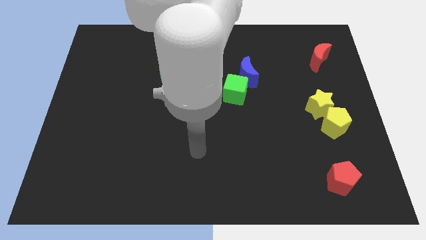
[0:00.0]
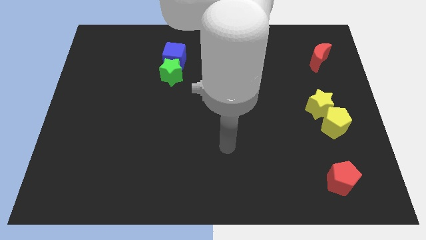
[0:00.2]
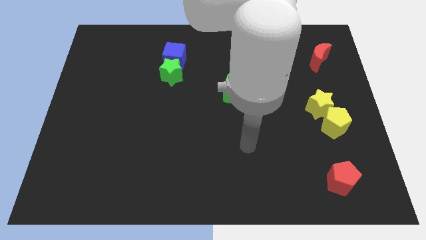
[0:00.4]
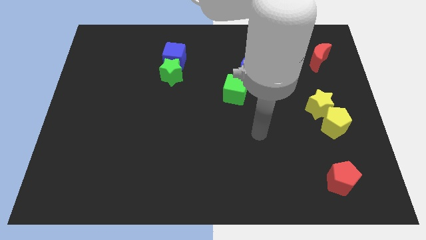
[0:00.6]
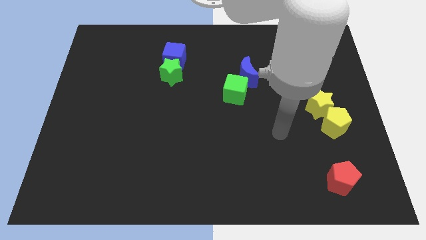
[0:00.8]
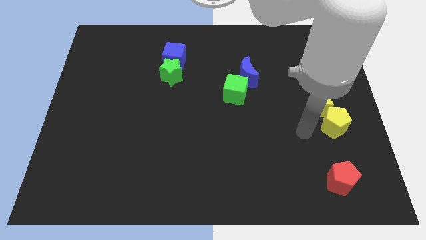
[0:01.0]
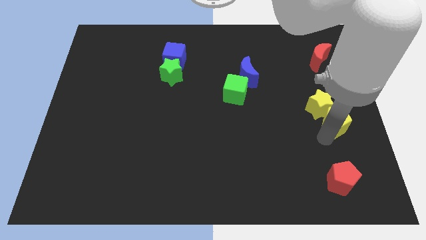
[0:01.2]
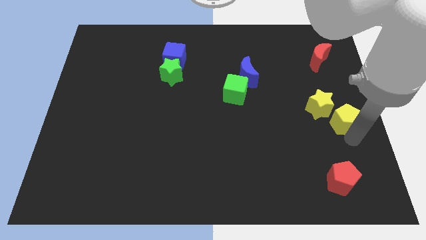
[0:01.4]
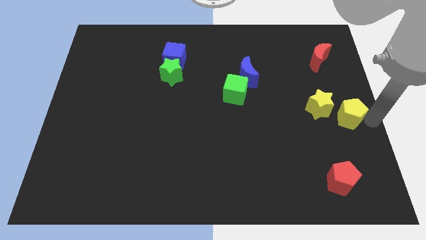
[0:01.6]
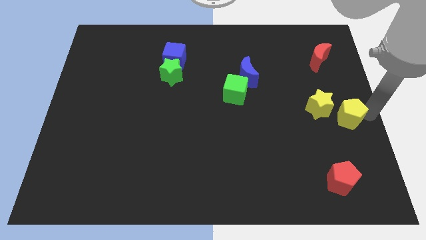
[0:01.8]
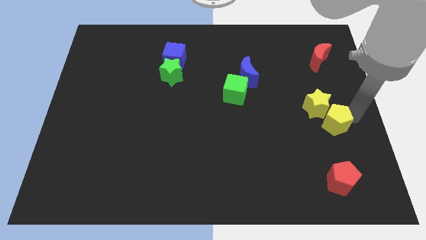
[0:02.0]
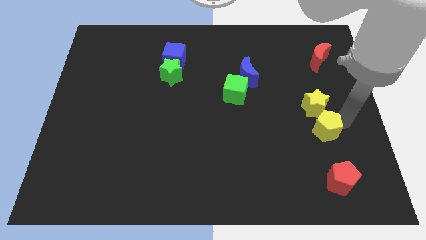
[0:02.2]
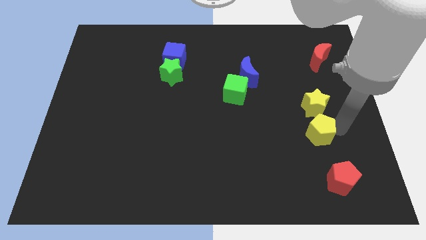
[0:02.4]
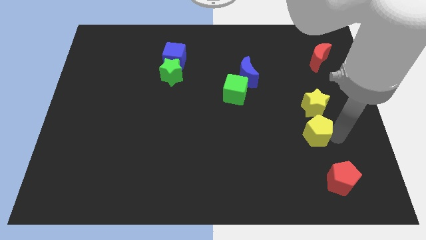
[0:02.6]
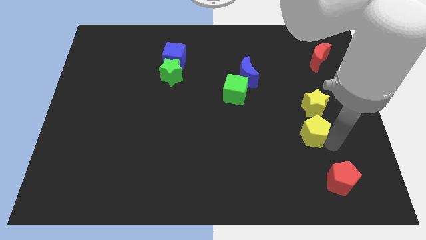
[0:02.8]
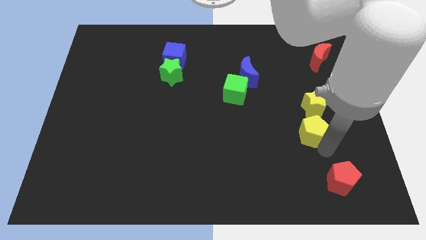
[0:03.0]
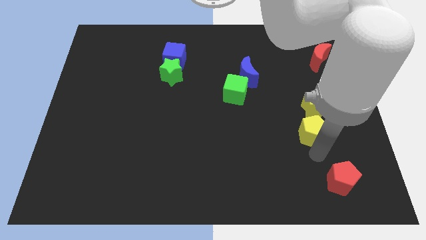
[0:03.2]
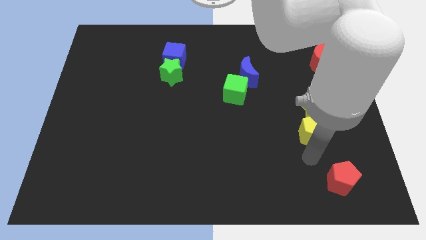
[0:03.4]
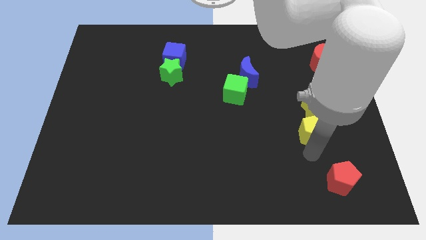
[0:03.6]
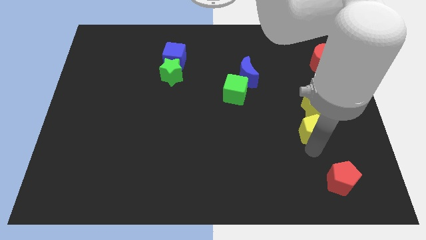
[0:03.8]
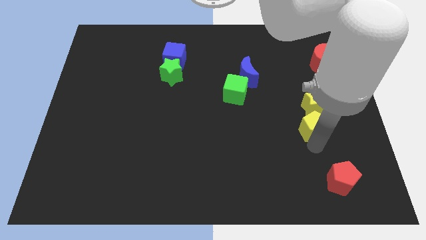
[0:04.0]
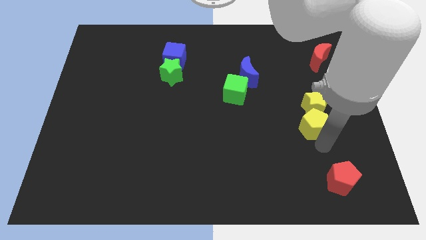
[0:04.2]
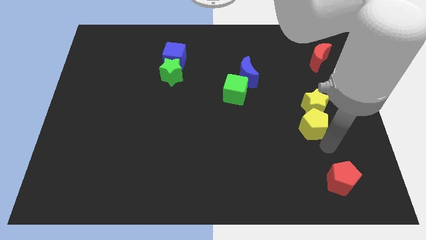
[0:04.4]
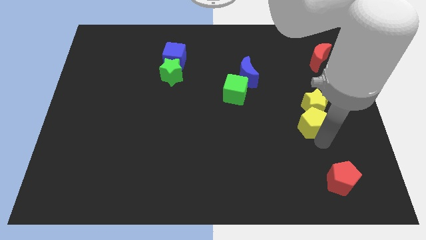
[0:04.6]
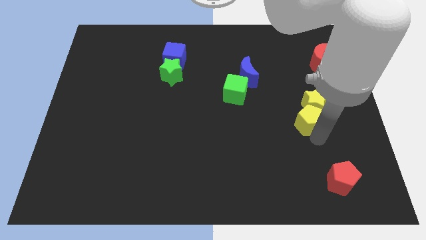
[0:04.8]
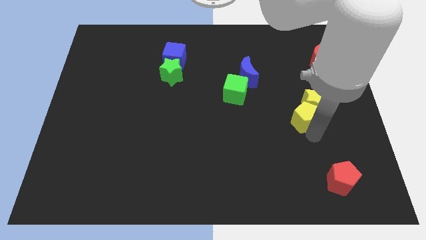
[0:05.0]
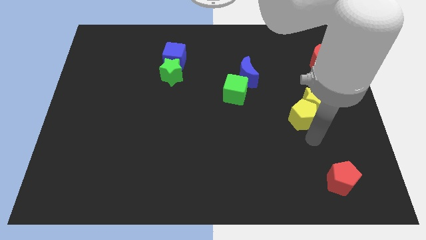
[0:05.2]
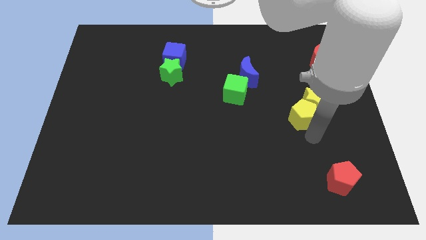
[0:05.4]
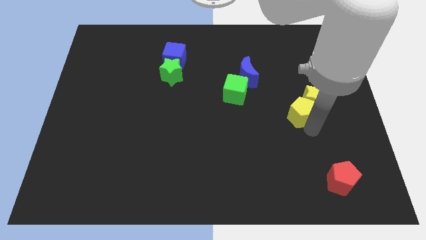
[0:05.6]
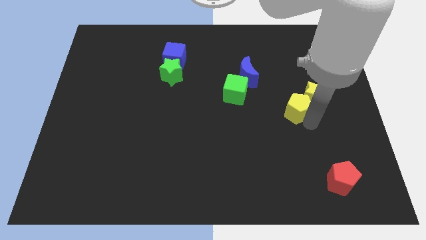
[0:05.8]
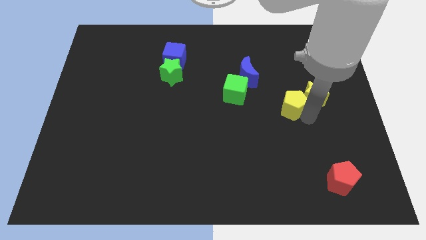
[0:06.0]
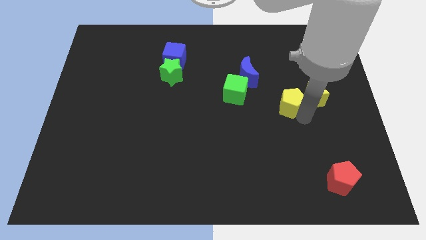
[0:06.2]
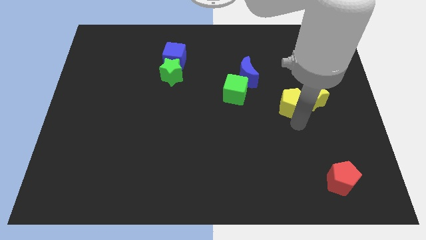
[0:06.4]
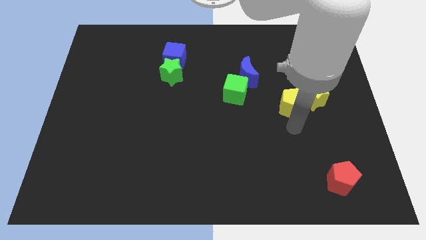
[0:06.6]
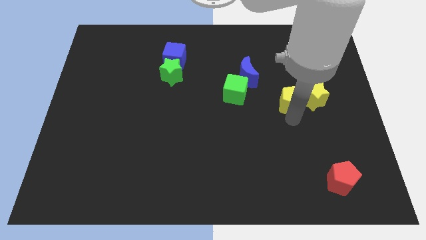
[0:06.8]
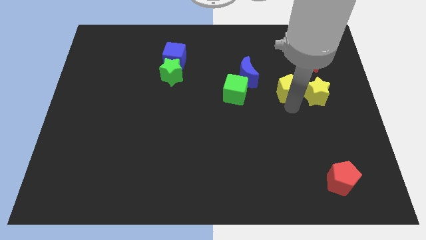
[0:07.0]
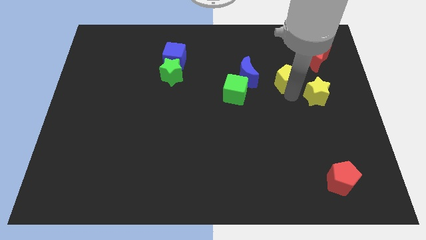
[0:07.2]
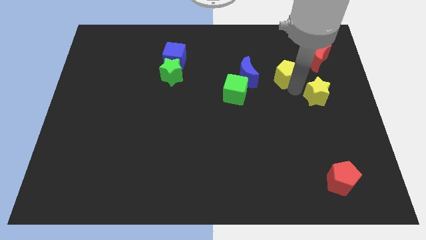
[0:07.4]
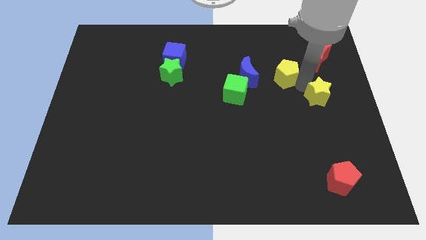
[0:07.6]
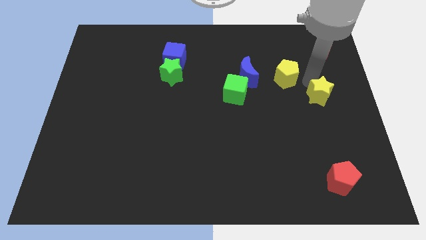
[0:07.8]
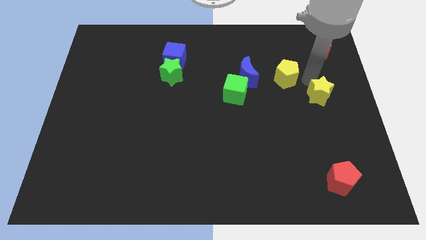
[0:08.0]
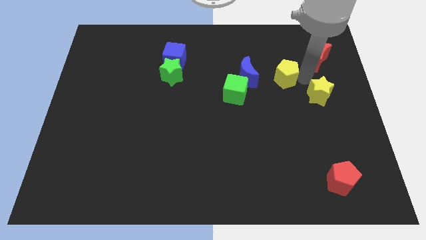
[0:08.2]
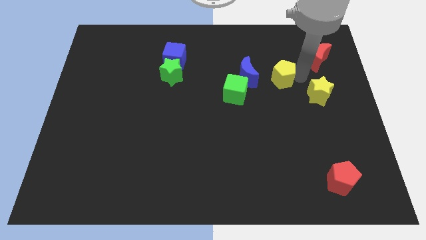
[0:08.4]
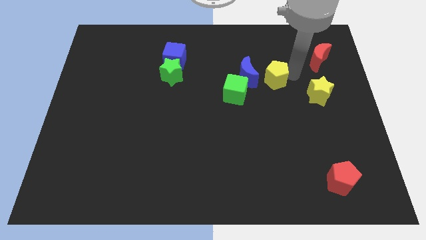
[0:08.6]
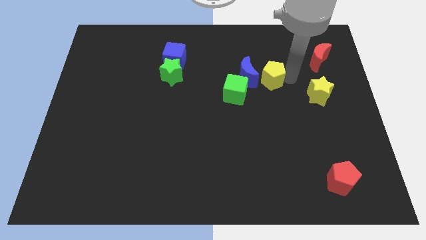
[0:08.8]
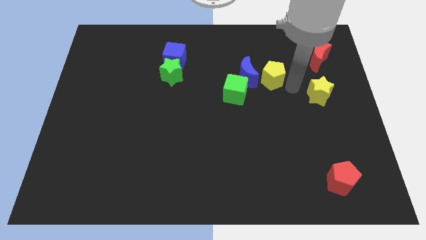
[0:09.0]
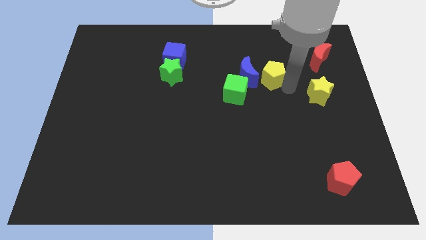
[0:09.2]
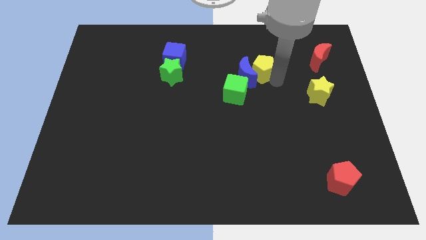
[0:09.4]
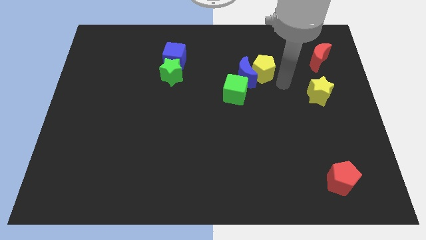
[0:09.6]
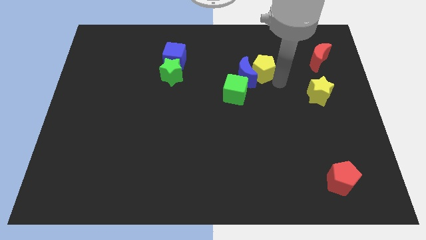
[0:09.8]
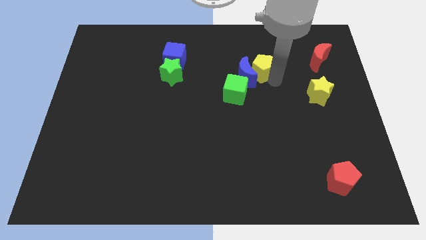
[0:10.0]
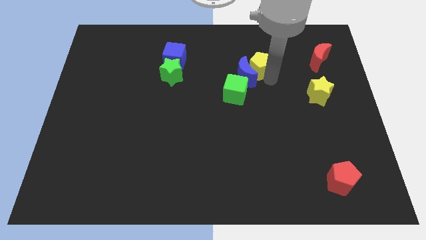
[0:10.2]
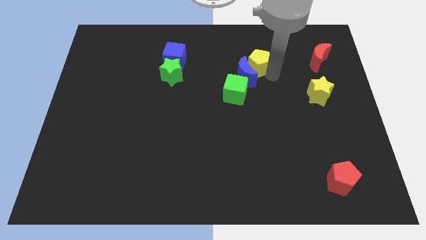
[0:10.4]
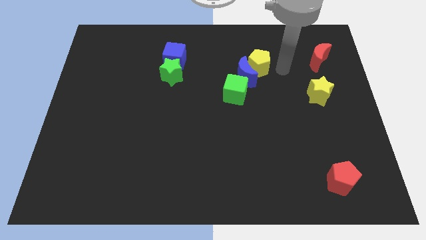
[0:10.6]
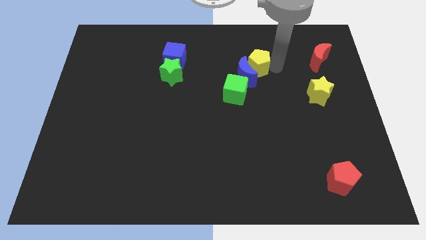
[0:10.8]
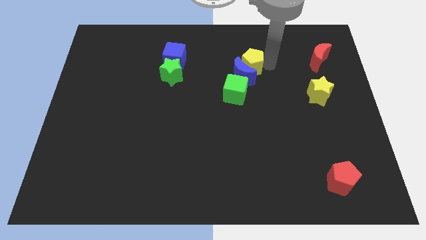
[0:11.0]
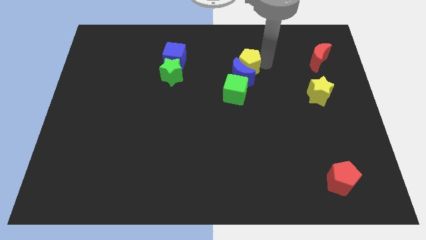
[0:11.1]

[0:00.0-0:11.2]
push the yellow pentagon to the top left side of the blue moon

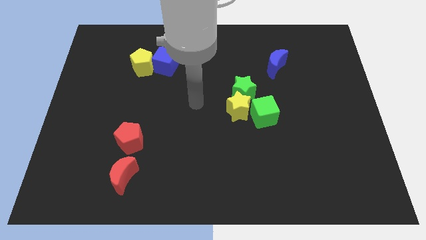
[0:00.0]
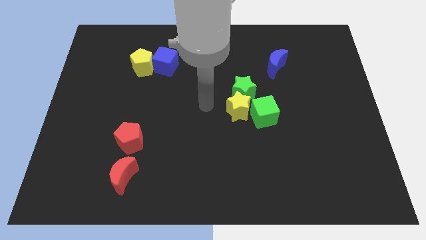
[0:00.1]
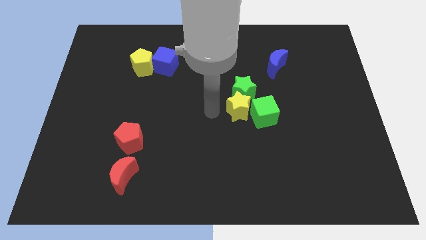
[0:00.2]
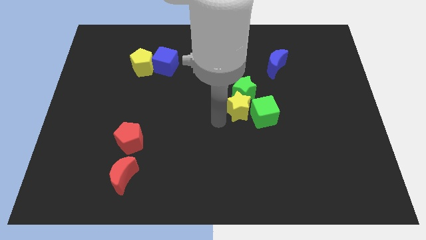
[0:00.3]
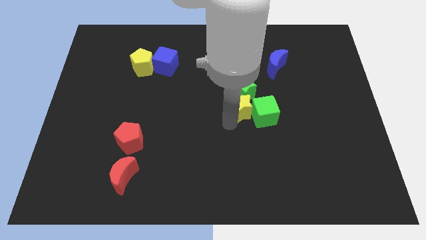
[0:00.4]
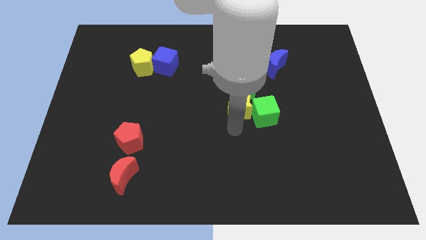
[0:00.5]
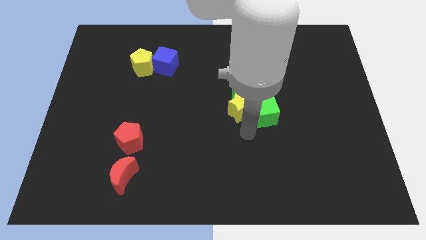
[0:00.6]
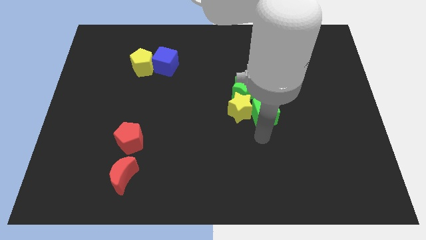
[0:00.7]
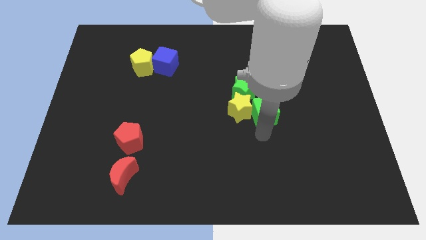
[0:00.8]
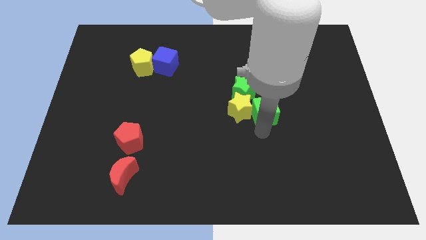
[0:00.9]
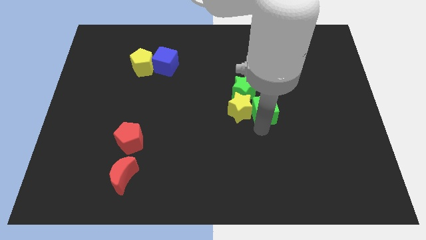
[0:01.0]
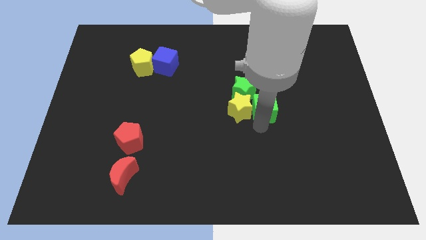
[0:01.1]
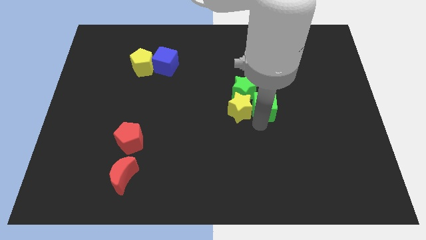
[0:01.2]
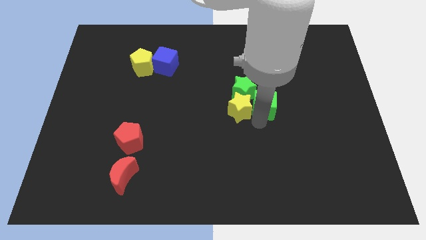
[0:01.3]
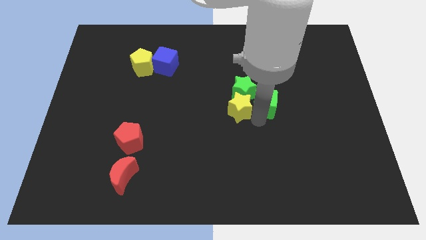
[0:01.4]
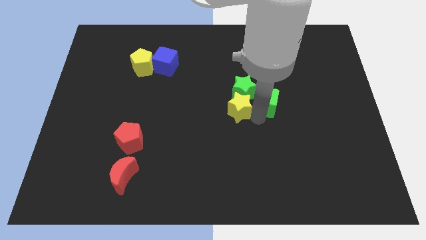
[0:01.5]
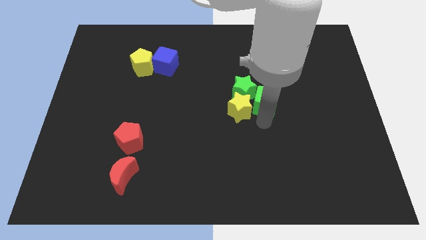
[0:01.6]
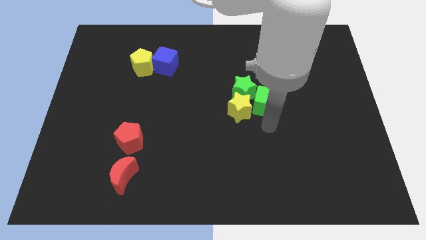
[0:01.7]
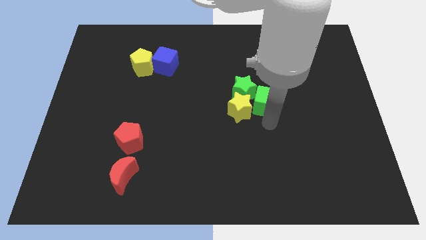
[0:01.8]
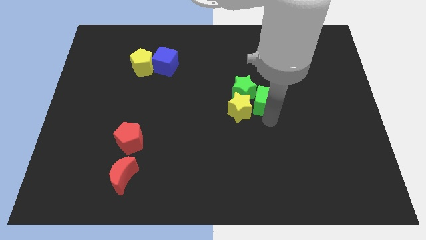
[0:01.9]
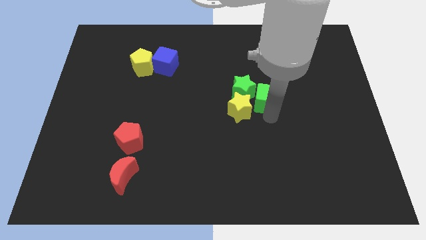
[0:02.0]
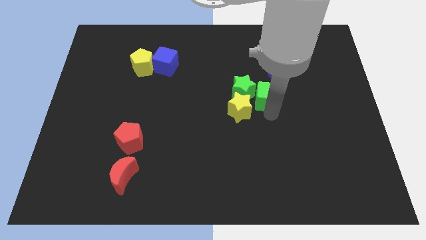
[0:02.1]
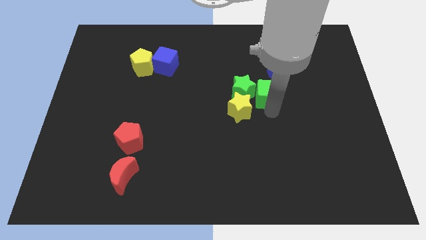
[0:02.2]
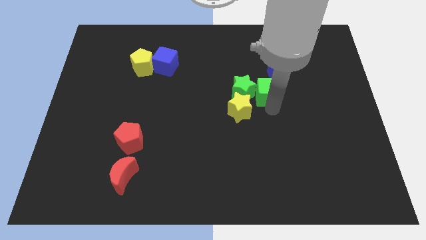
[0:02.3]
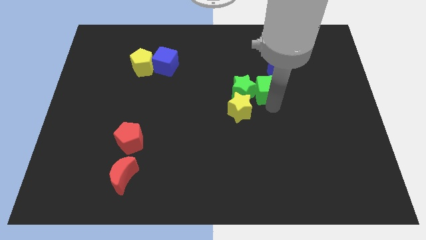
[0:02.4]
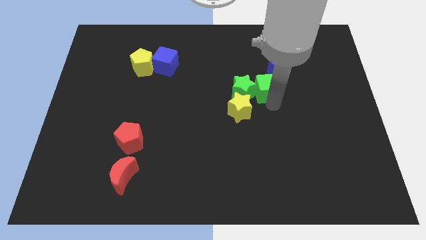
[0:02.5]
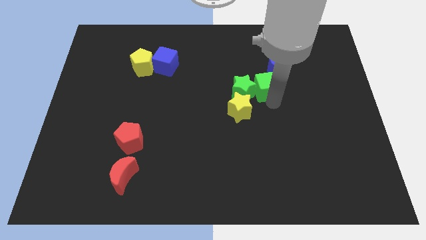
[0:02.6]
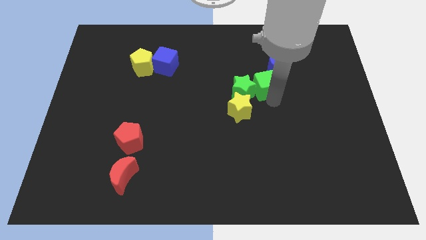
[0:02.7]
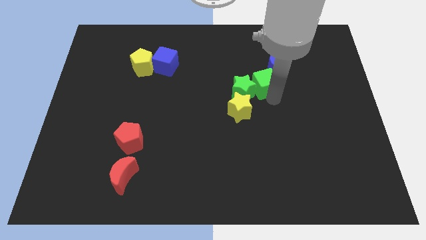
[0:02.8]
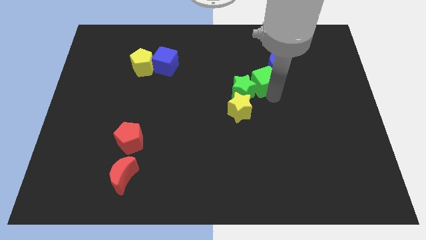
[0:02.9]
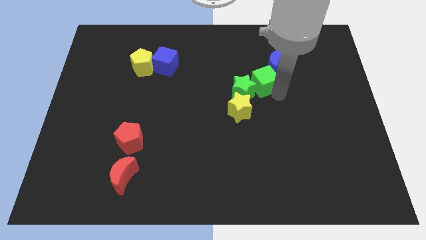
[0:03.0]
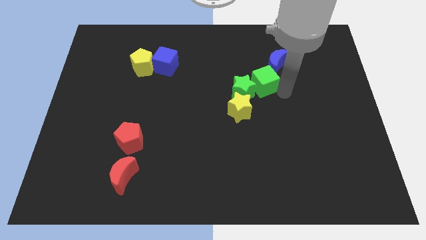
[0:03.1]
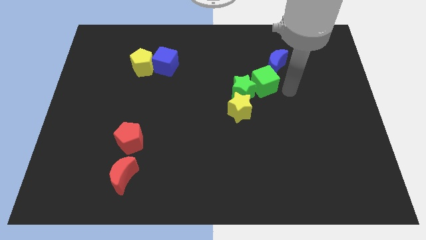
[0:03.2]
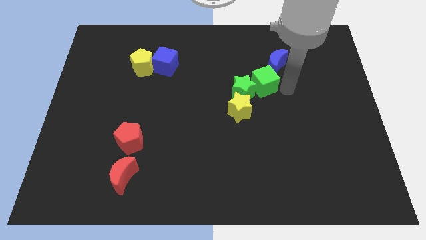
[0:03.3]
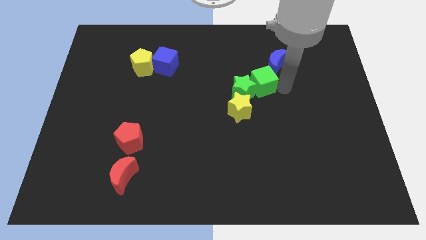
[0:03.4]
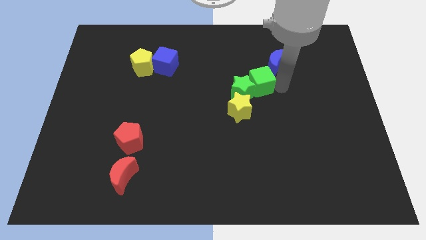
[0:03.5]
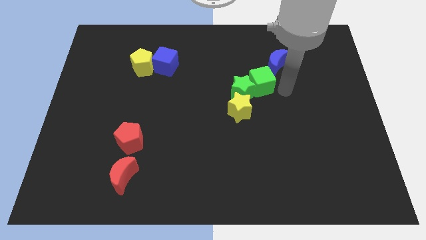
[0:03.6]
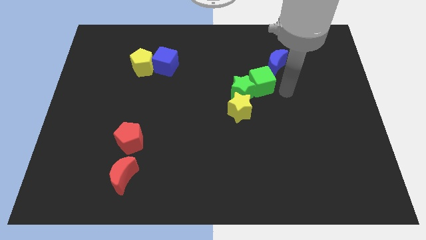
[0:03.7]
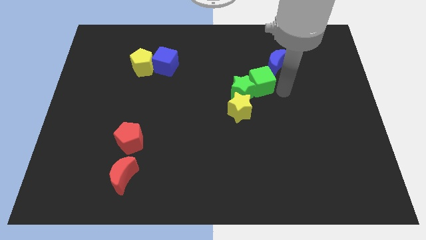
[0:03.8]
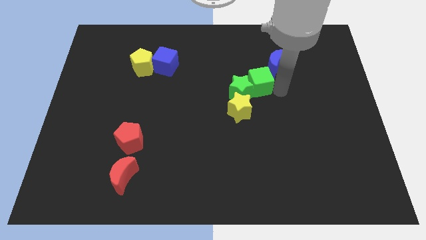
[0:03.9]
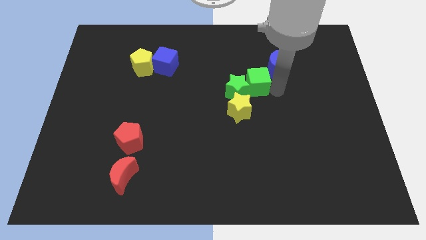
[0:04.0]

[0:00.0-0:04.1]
push the green cube above the yellow star
